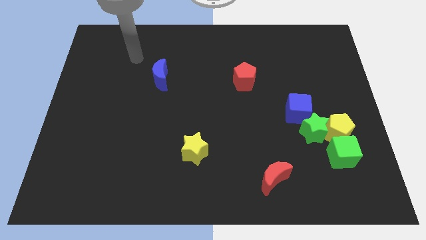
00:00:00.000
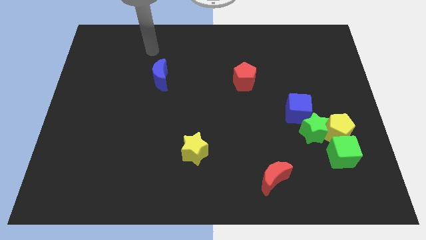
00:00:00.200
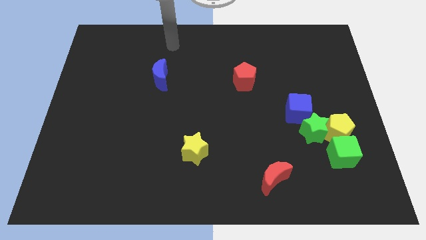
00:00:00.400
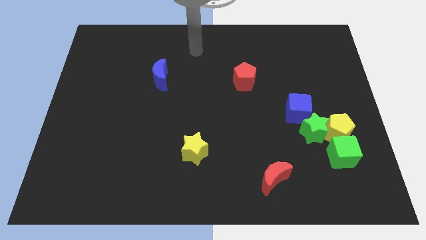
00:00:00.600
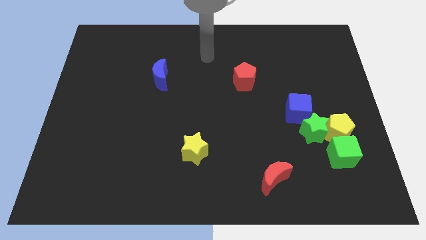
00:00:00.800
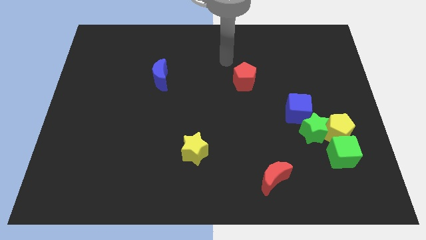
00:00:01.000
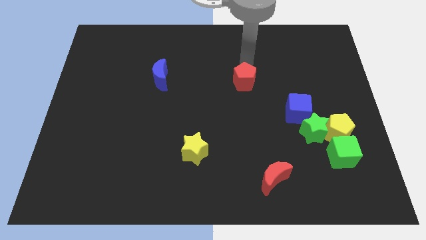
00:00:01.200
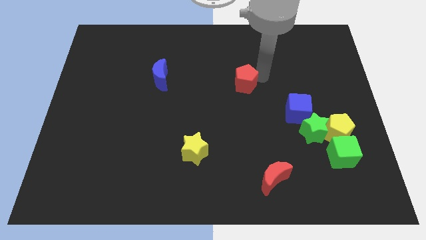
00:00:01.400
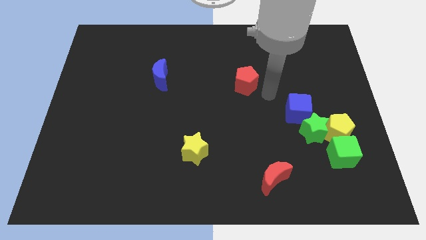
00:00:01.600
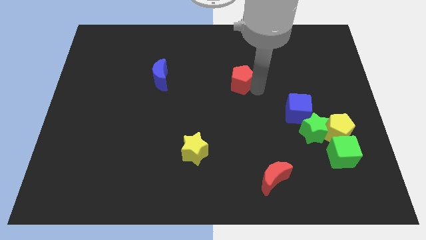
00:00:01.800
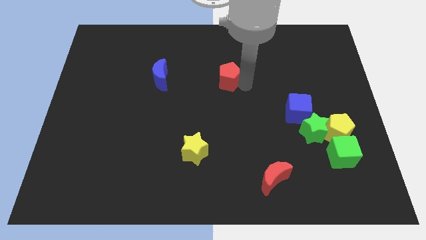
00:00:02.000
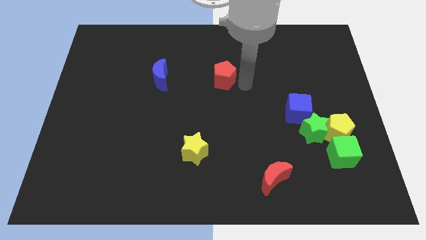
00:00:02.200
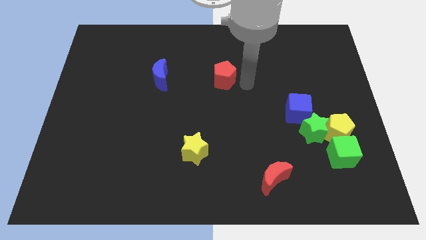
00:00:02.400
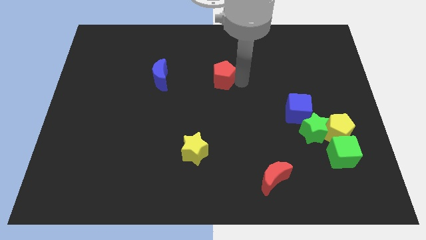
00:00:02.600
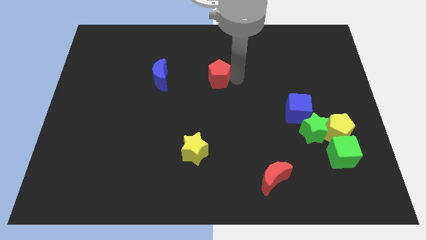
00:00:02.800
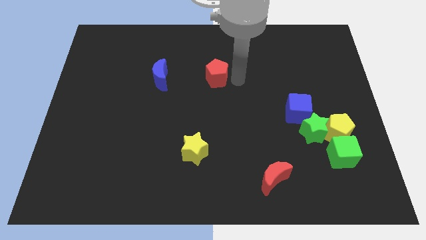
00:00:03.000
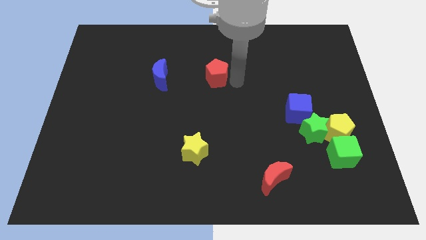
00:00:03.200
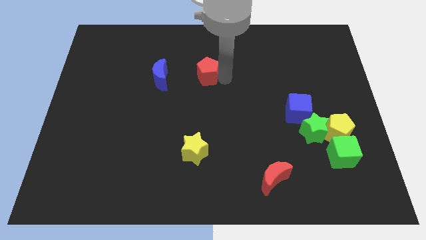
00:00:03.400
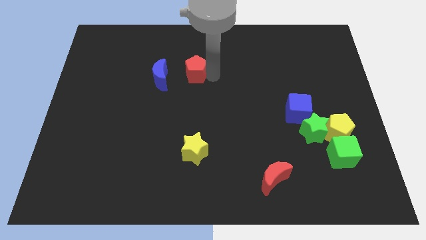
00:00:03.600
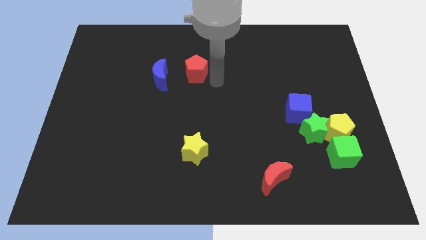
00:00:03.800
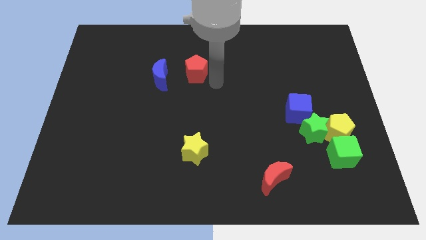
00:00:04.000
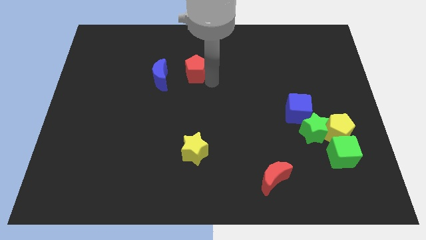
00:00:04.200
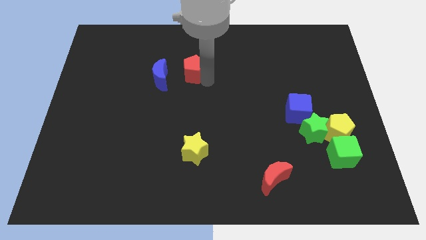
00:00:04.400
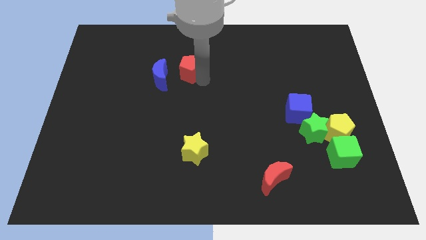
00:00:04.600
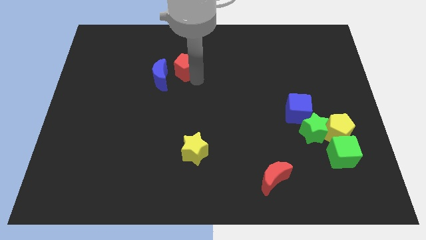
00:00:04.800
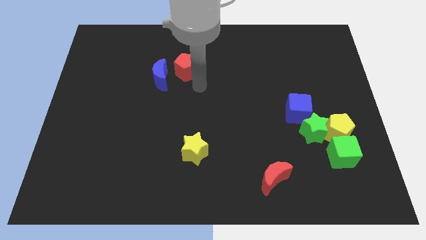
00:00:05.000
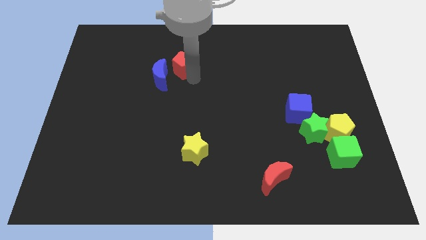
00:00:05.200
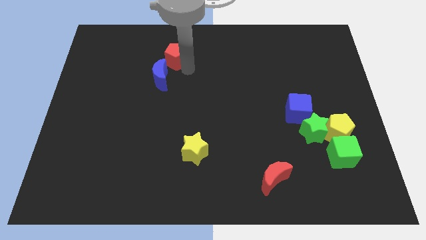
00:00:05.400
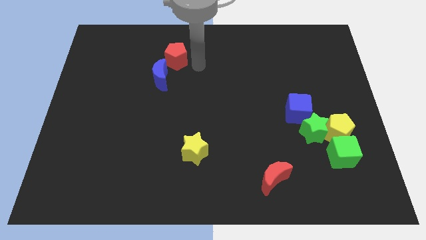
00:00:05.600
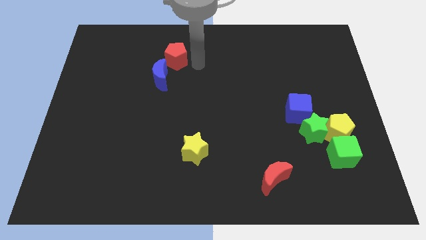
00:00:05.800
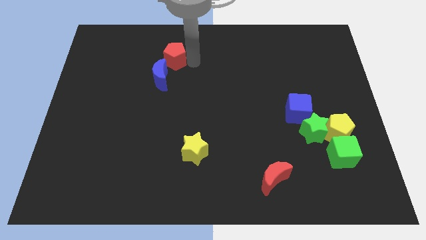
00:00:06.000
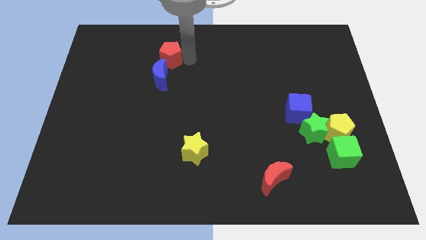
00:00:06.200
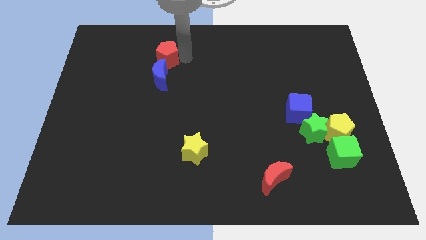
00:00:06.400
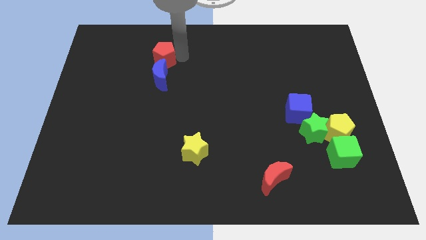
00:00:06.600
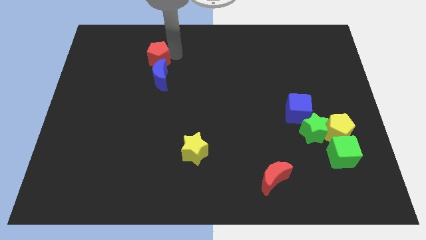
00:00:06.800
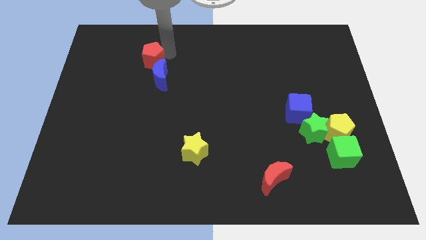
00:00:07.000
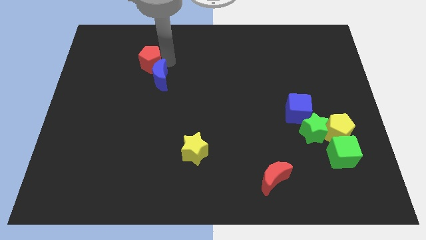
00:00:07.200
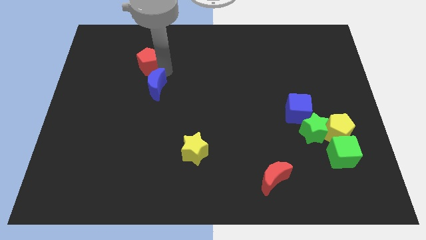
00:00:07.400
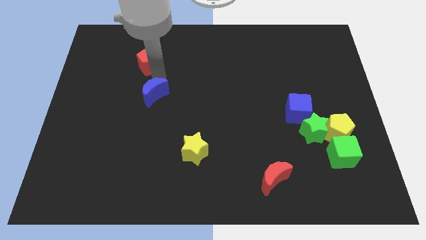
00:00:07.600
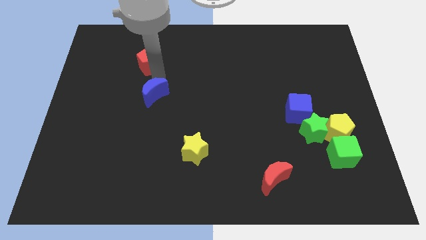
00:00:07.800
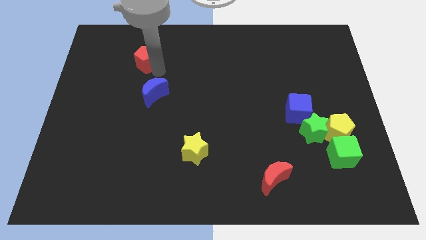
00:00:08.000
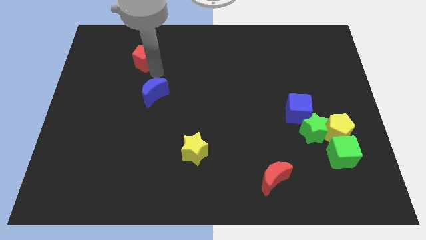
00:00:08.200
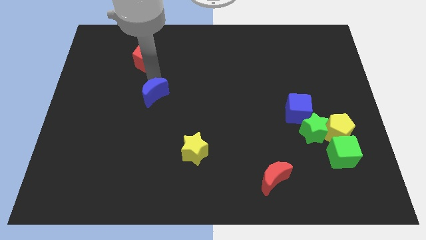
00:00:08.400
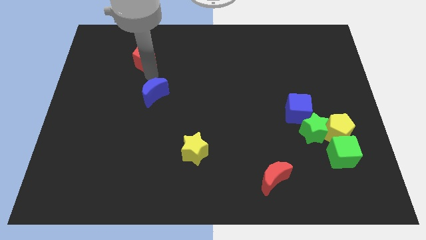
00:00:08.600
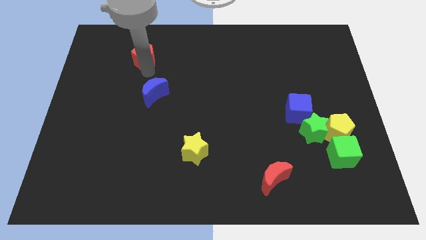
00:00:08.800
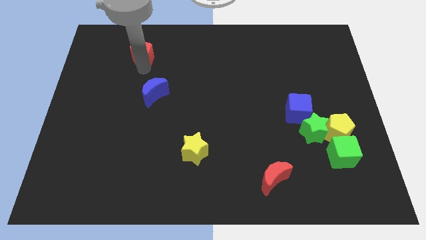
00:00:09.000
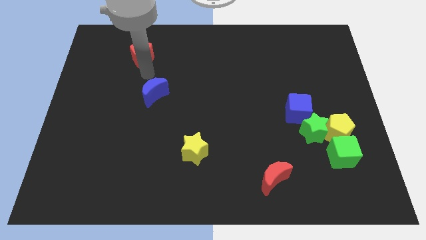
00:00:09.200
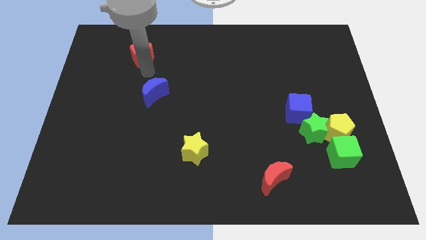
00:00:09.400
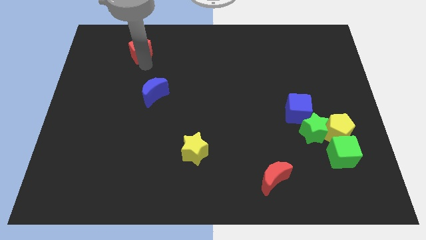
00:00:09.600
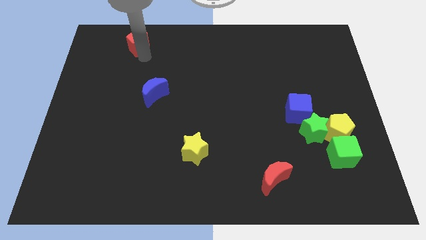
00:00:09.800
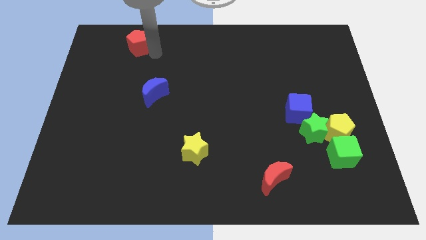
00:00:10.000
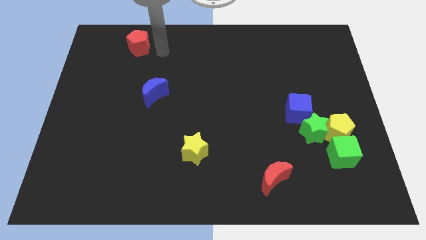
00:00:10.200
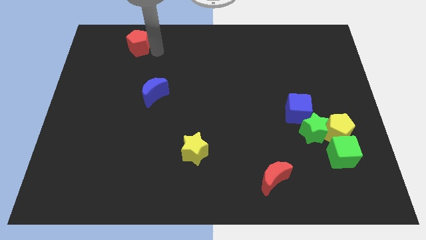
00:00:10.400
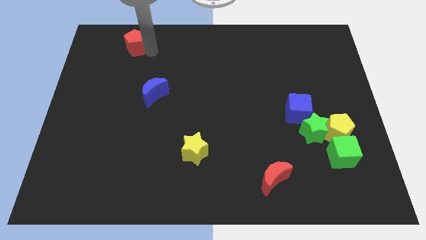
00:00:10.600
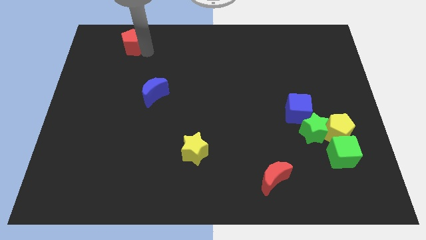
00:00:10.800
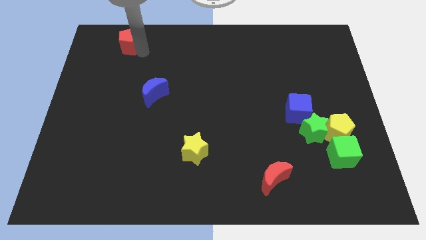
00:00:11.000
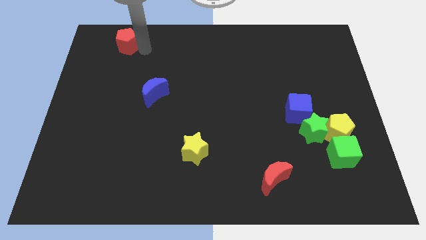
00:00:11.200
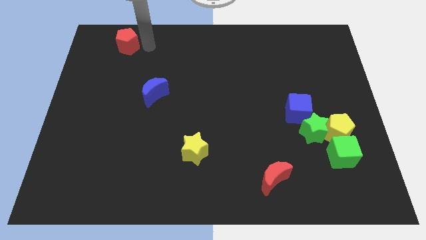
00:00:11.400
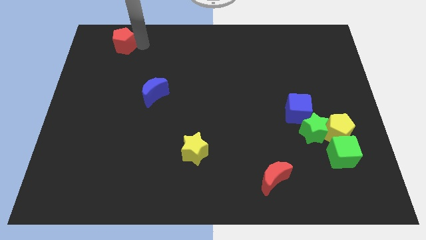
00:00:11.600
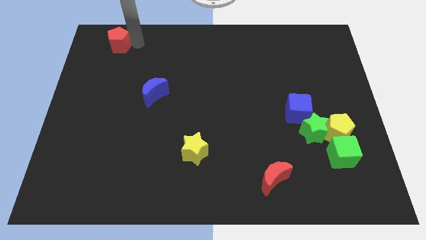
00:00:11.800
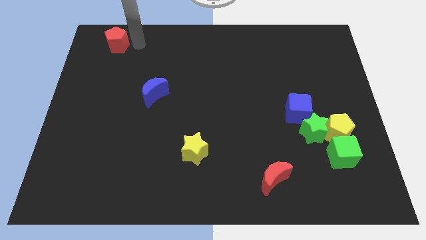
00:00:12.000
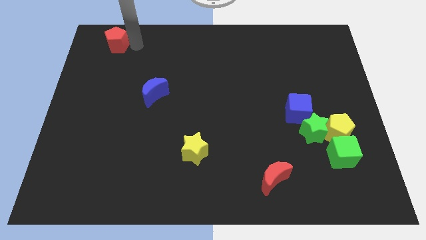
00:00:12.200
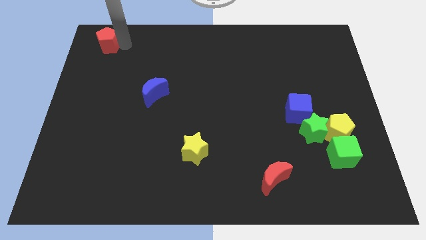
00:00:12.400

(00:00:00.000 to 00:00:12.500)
slide the red pentagon to the top left
